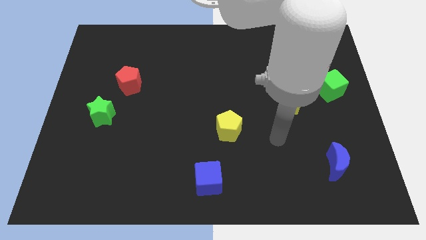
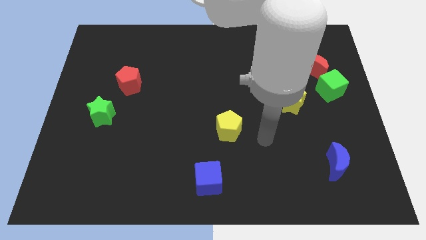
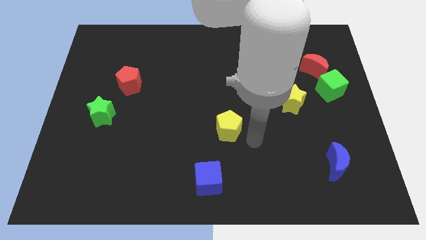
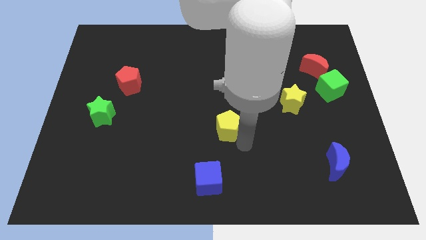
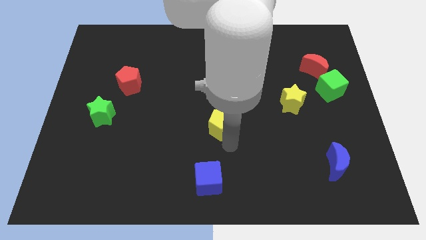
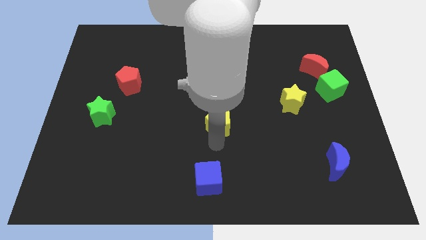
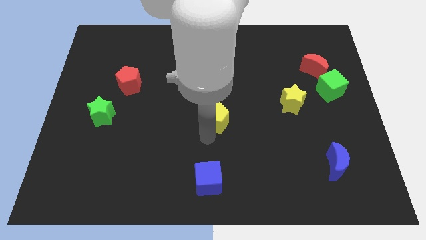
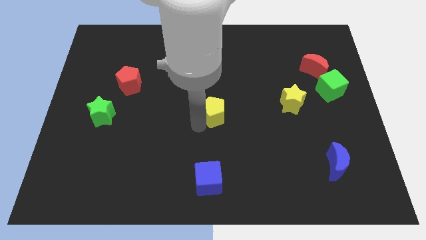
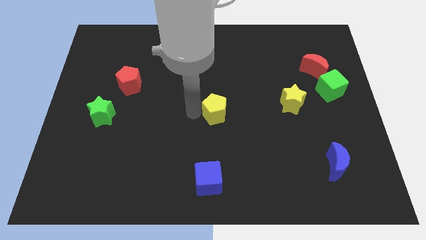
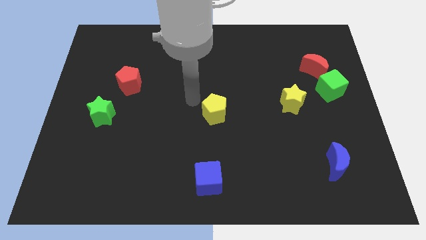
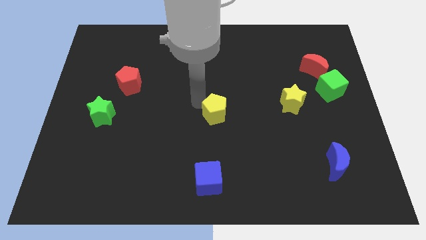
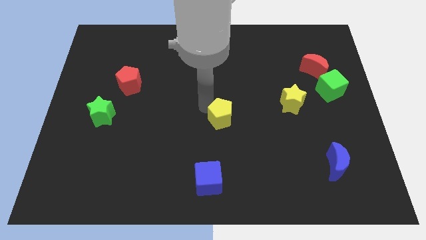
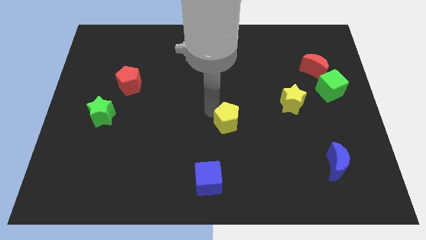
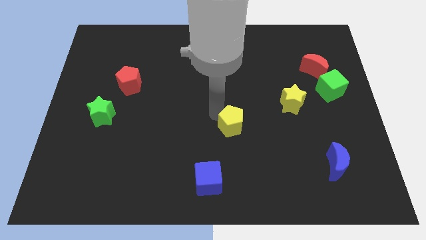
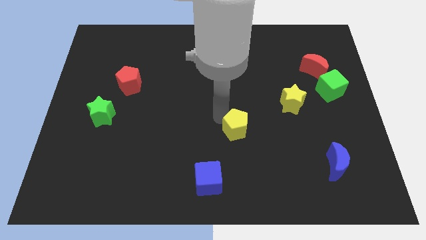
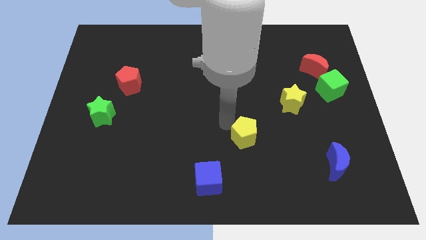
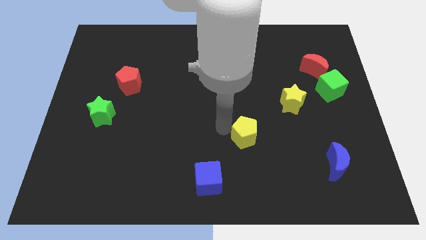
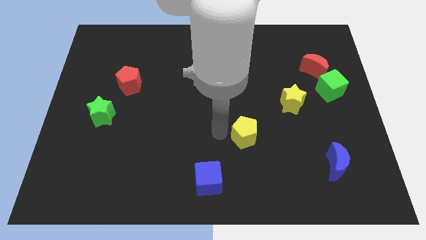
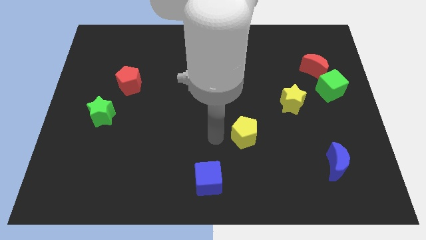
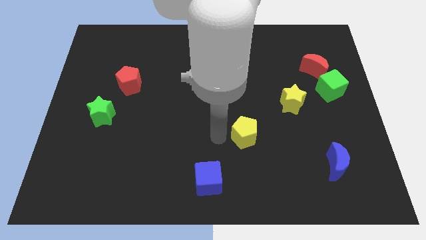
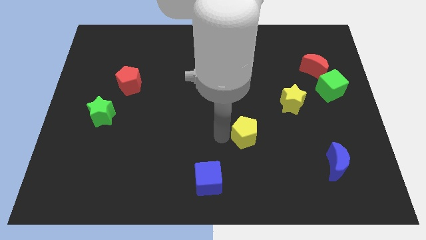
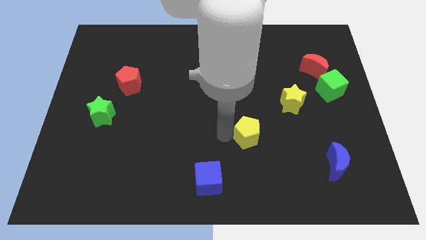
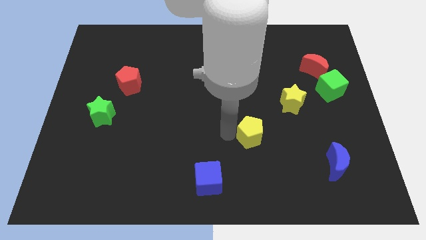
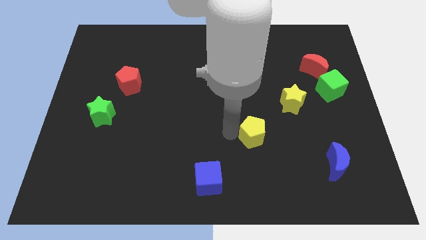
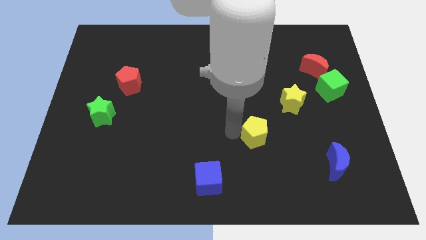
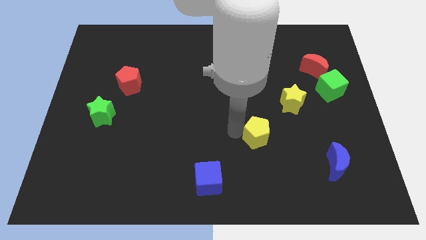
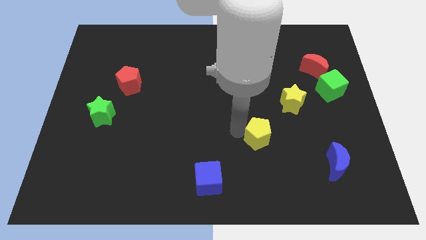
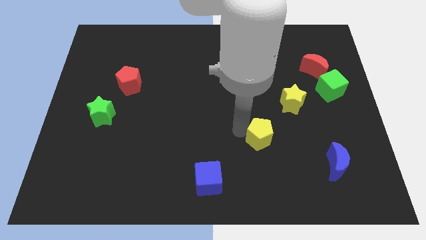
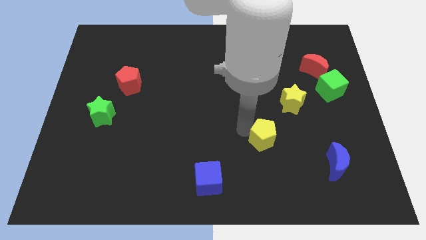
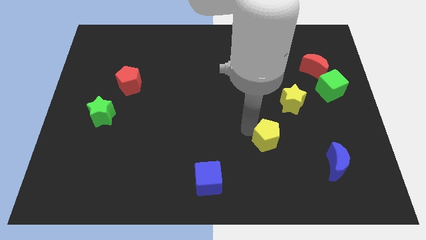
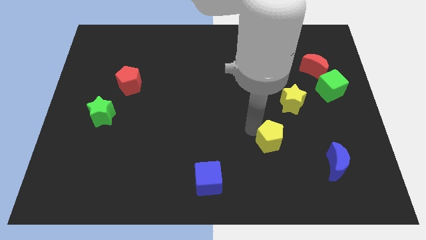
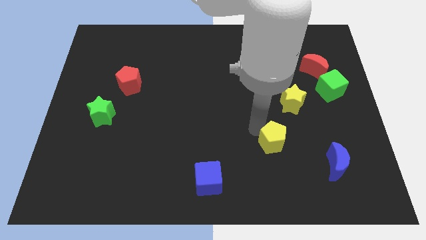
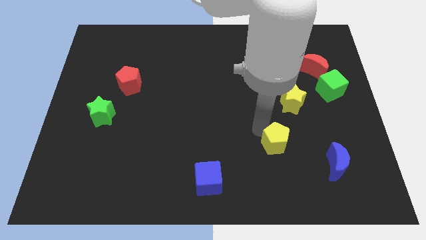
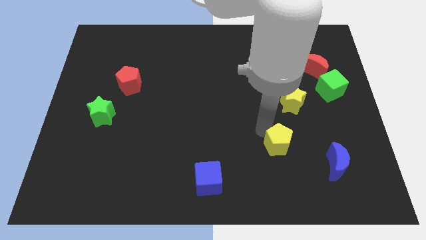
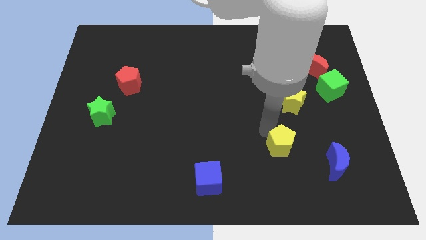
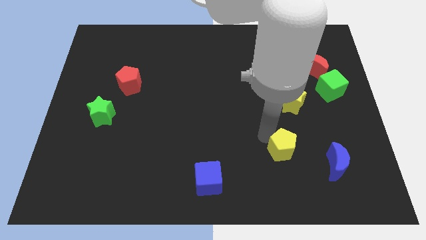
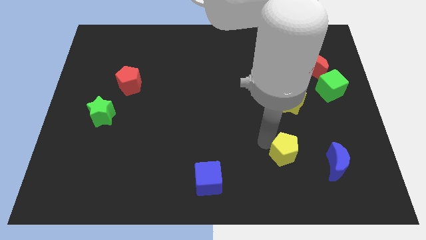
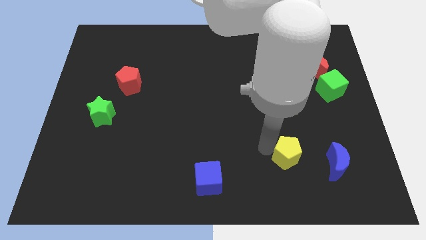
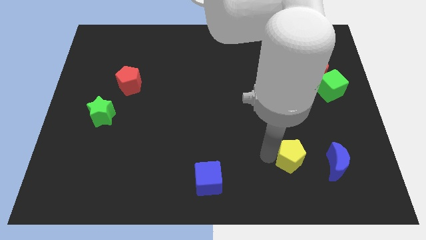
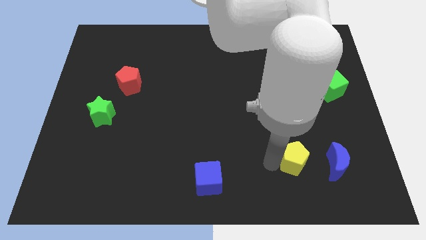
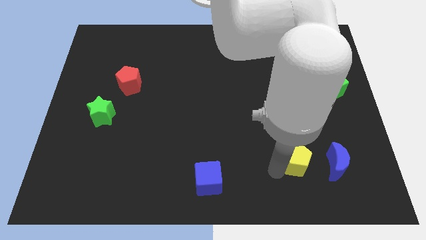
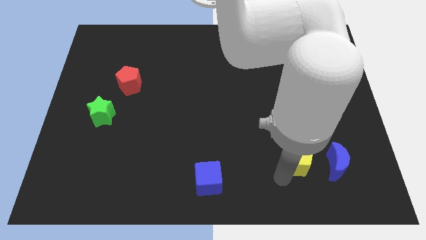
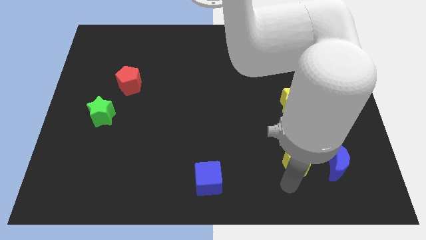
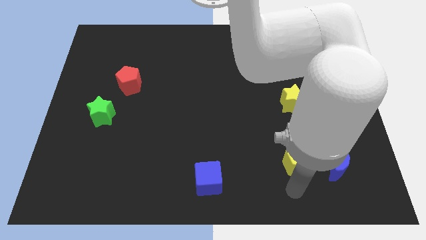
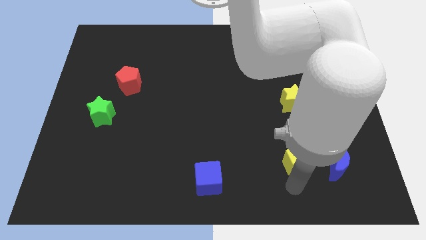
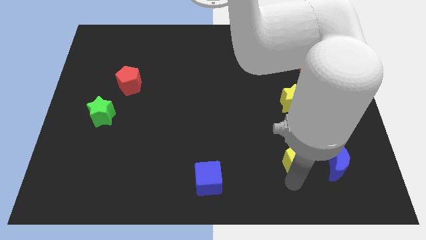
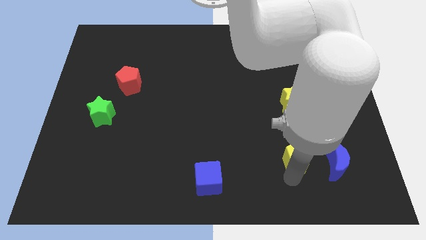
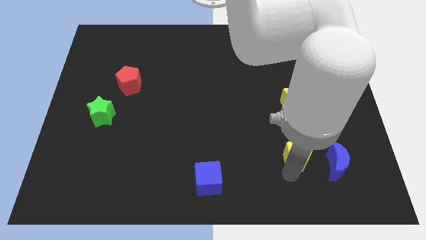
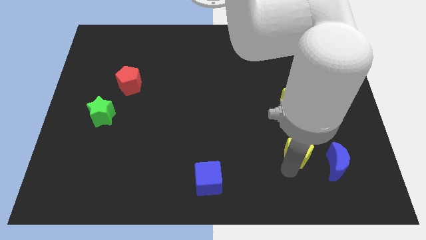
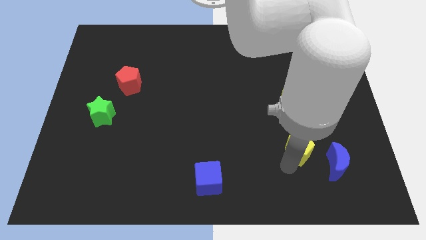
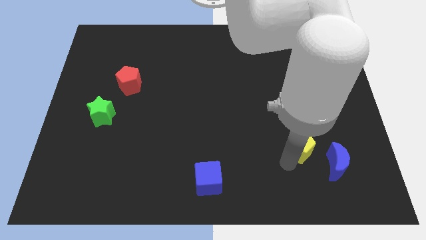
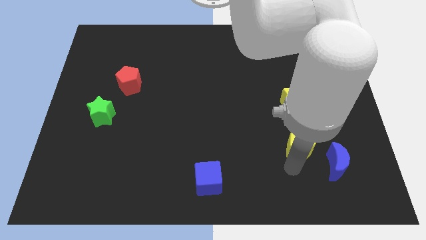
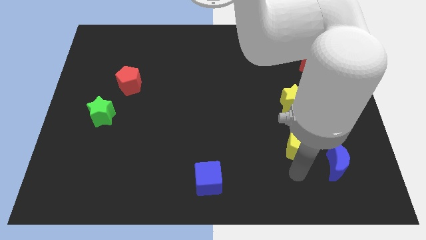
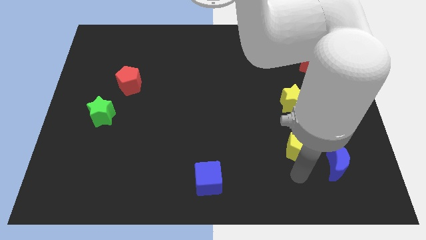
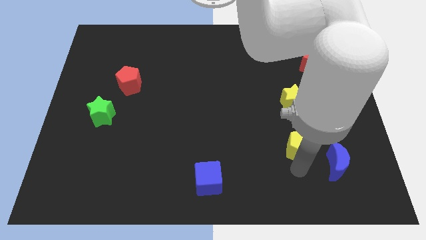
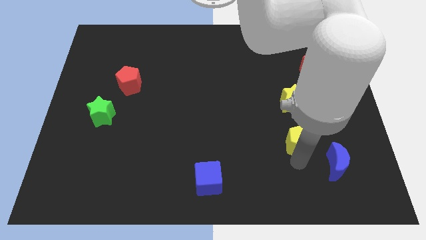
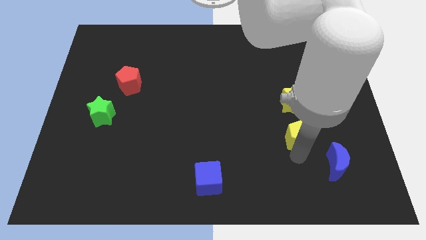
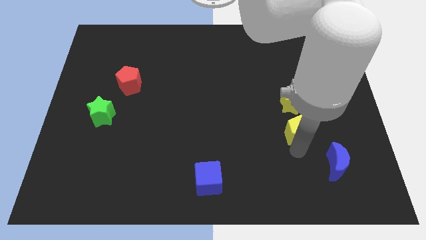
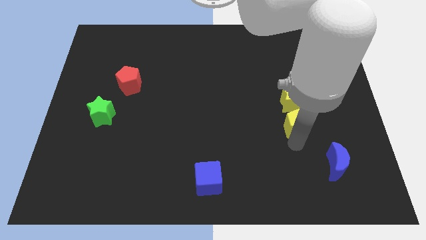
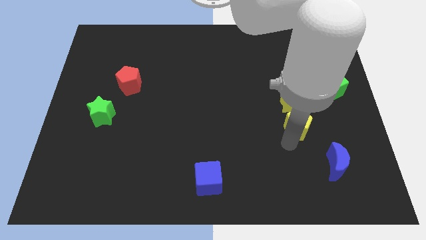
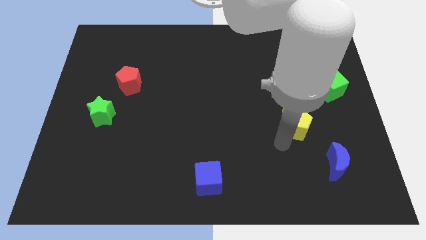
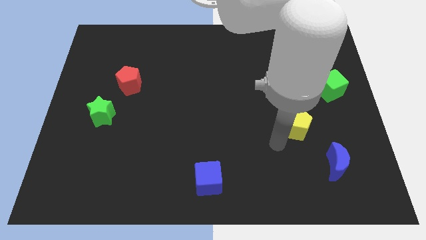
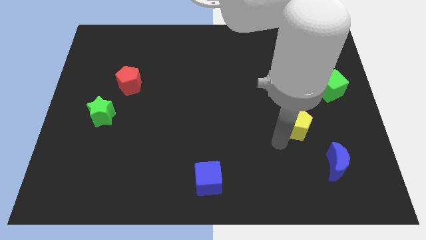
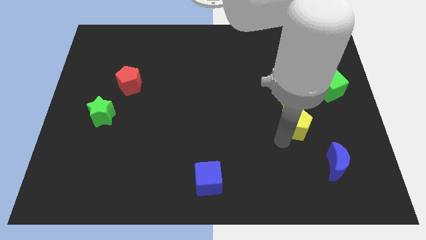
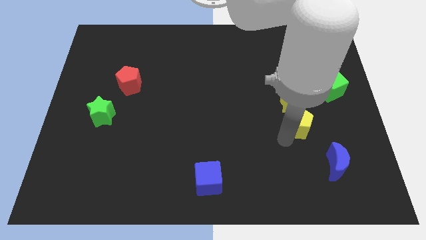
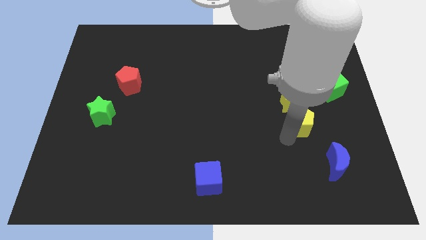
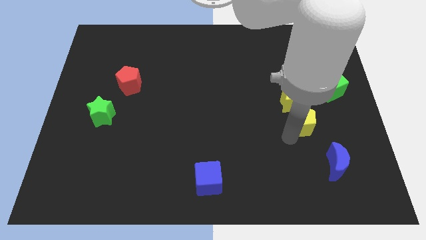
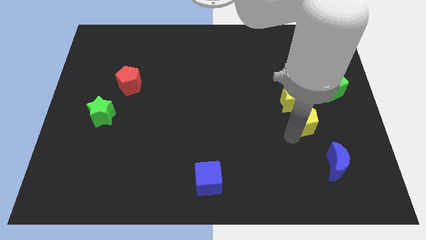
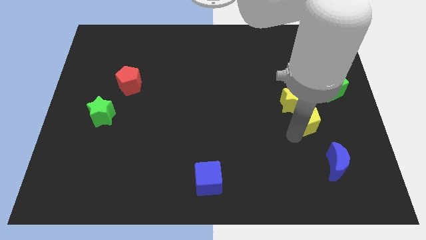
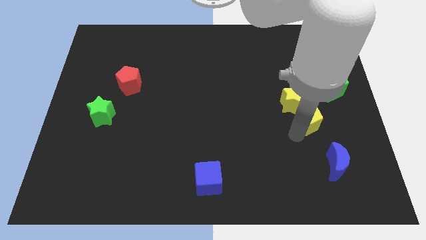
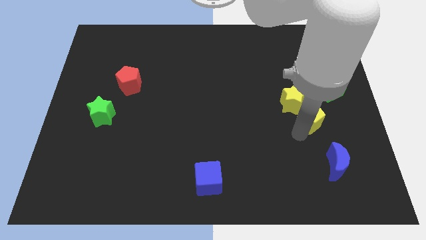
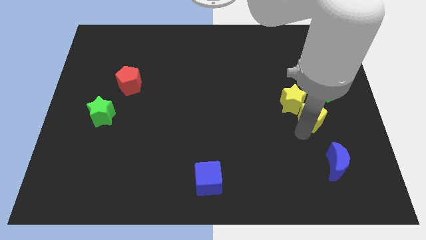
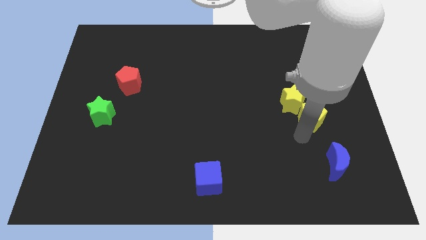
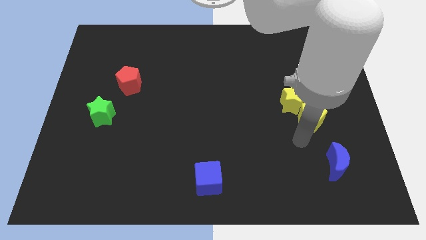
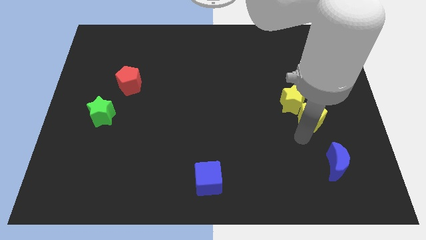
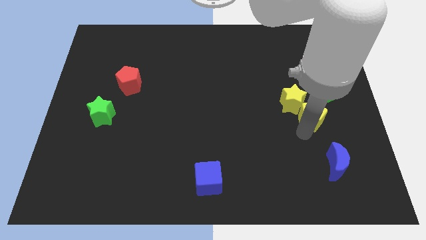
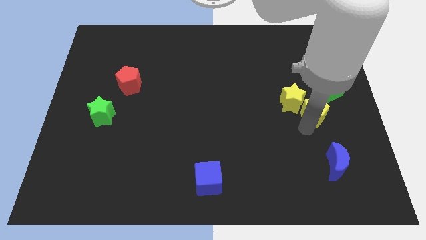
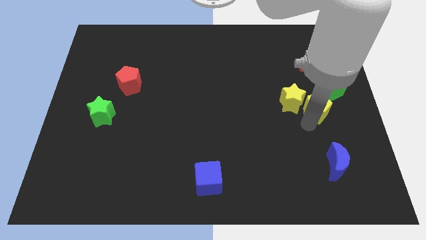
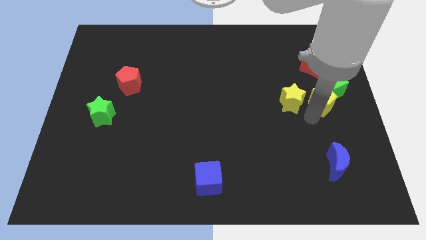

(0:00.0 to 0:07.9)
slide the yellow pentagon towards the green cube
